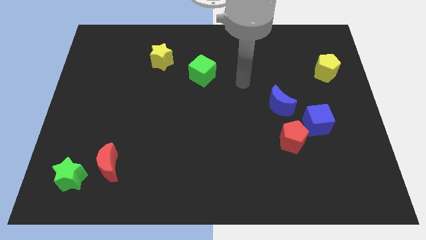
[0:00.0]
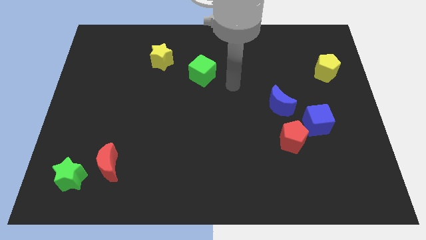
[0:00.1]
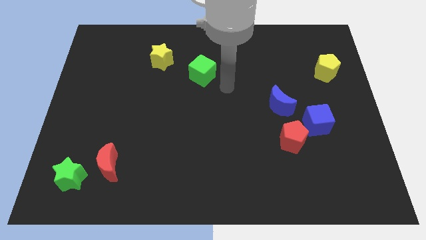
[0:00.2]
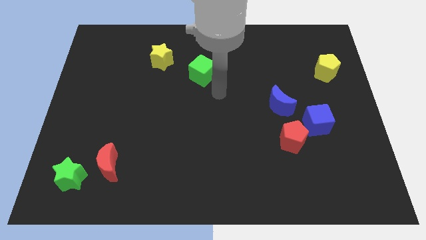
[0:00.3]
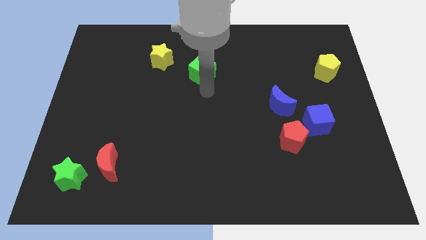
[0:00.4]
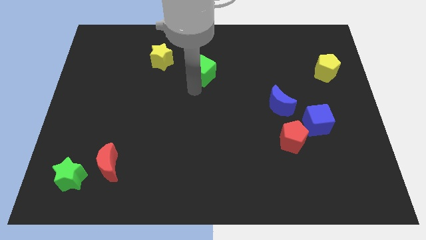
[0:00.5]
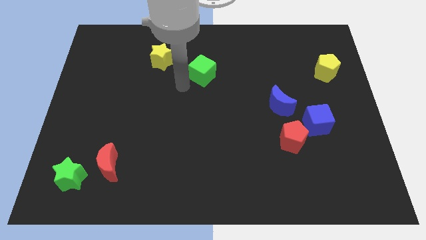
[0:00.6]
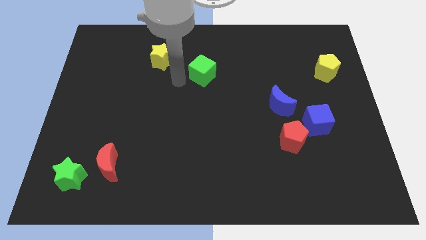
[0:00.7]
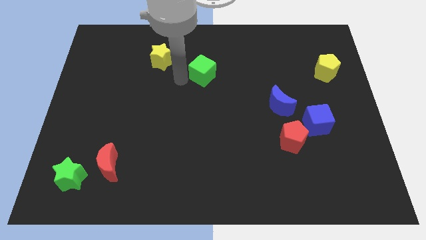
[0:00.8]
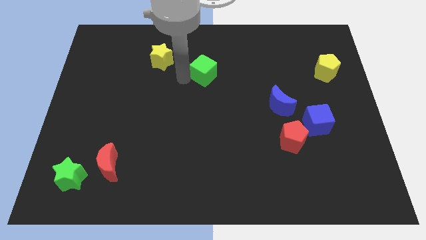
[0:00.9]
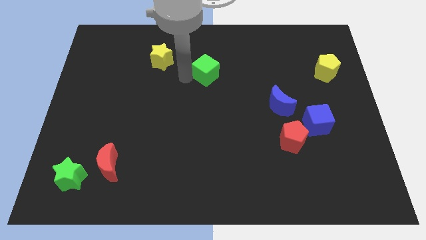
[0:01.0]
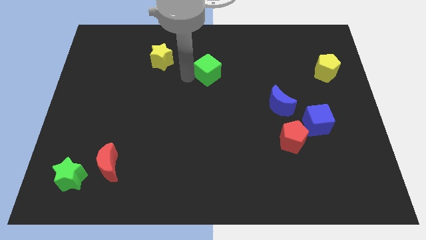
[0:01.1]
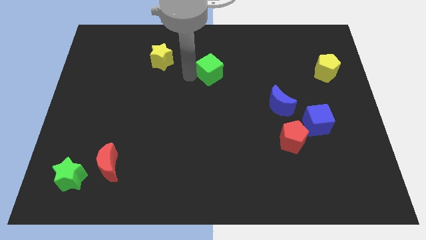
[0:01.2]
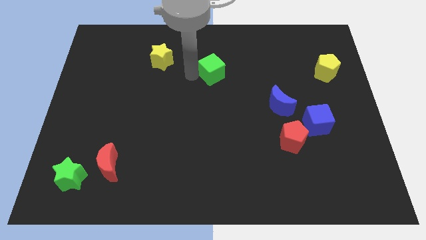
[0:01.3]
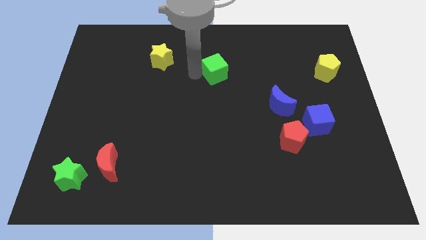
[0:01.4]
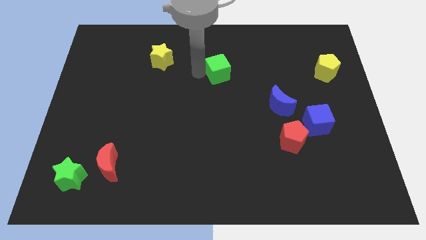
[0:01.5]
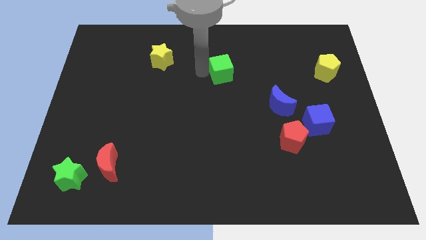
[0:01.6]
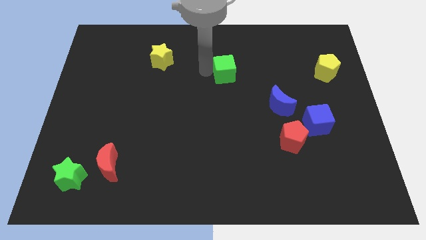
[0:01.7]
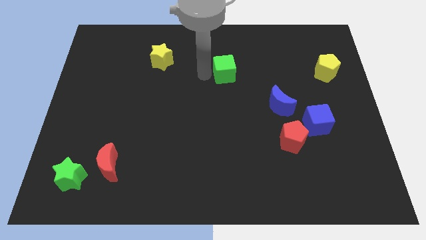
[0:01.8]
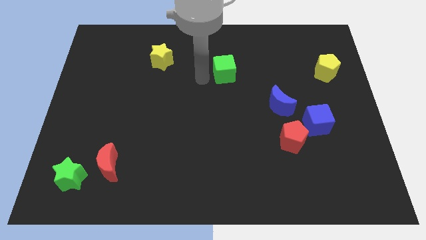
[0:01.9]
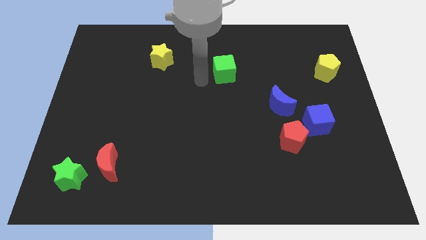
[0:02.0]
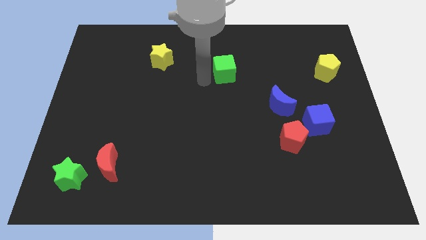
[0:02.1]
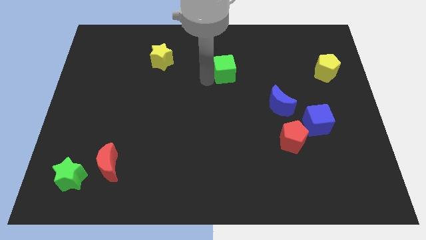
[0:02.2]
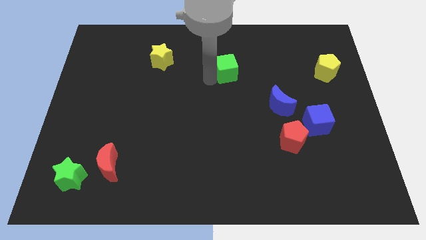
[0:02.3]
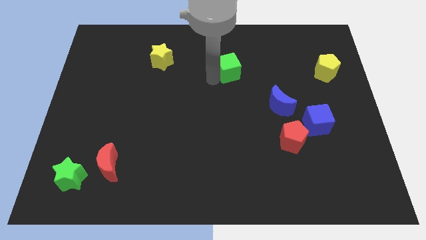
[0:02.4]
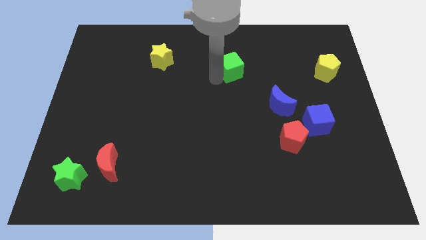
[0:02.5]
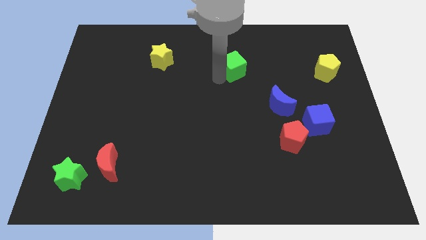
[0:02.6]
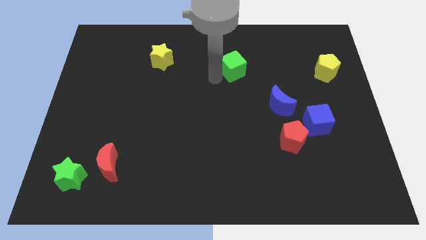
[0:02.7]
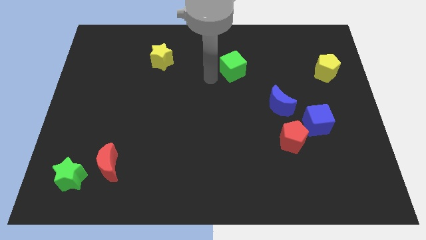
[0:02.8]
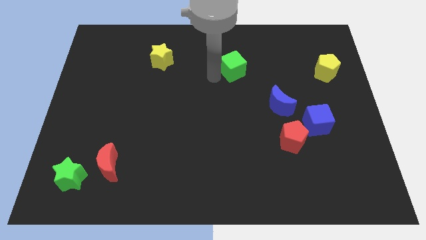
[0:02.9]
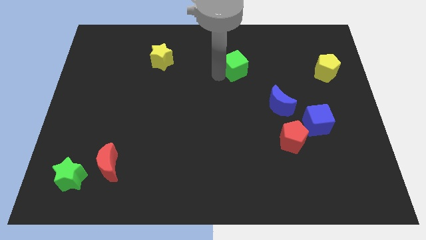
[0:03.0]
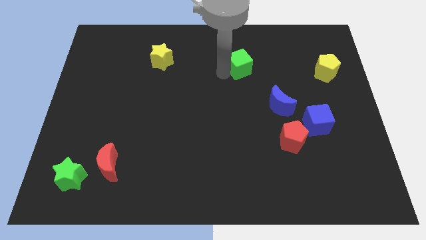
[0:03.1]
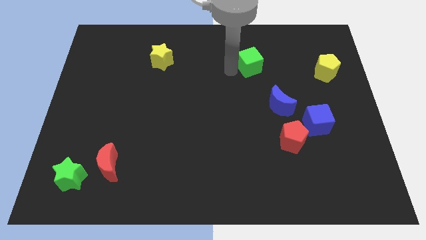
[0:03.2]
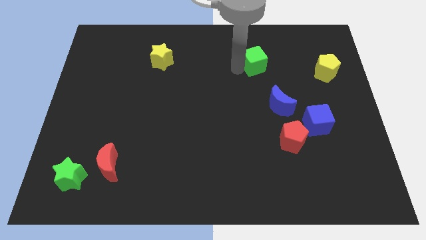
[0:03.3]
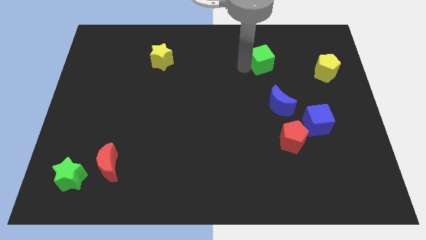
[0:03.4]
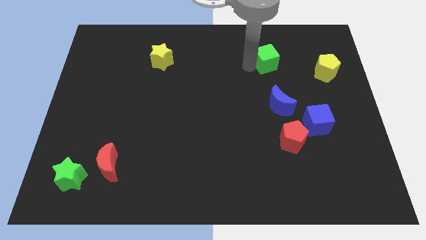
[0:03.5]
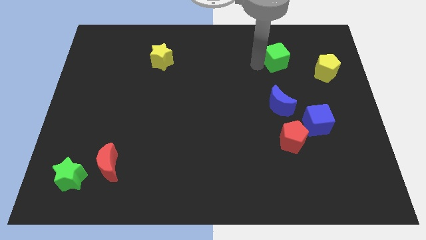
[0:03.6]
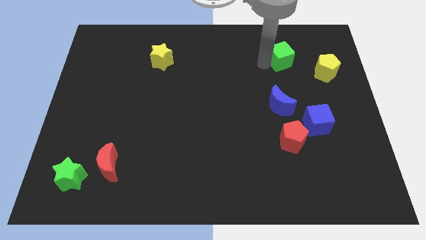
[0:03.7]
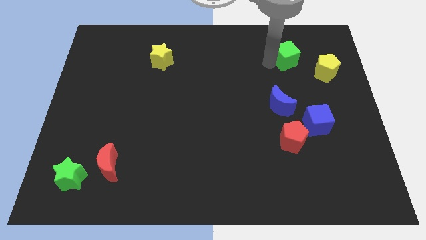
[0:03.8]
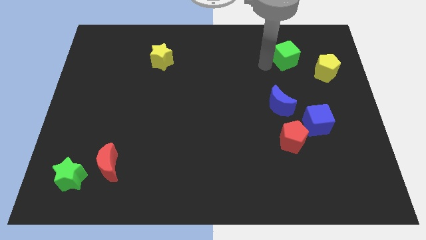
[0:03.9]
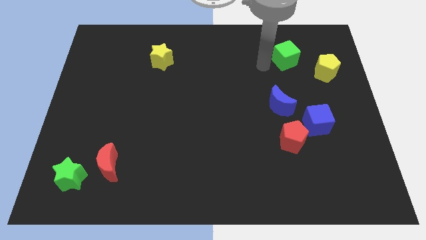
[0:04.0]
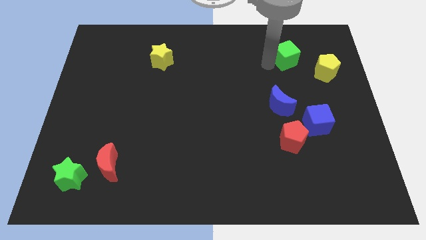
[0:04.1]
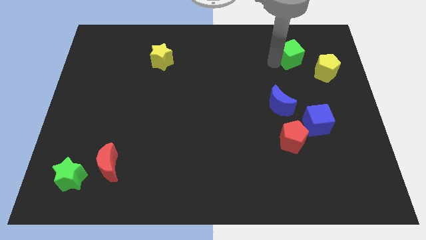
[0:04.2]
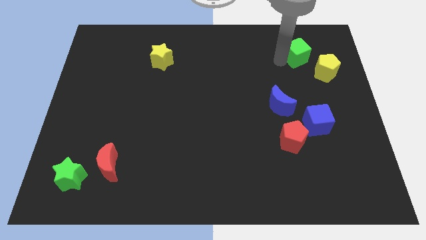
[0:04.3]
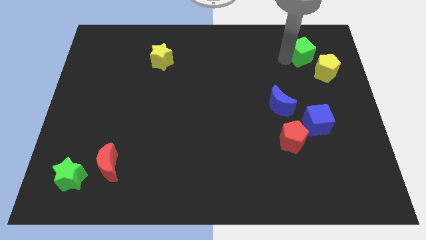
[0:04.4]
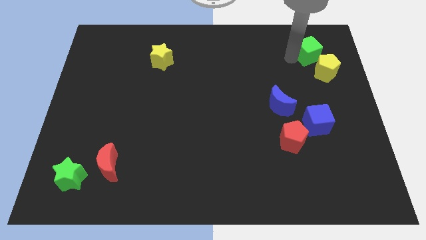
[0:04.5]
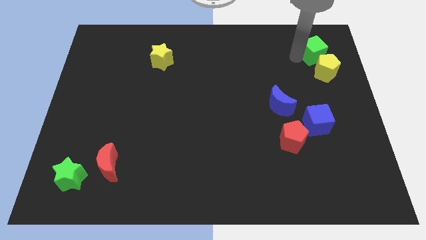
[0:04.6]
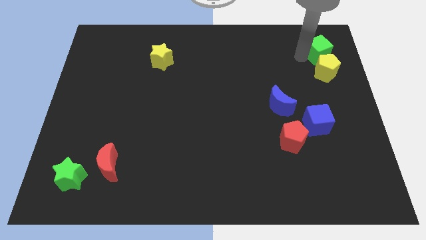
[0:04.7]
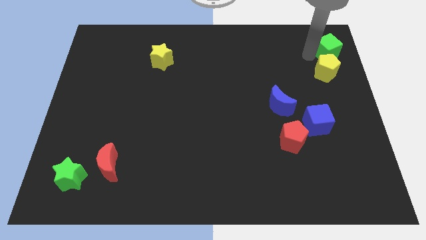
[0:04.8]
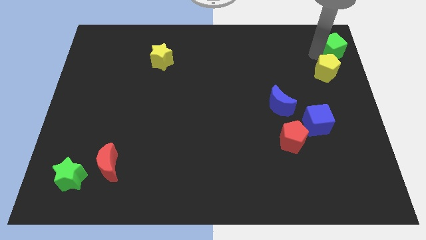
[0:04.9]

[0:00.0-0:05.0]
move the green cube to the upper right corner

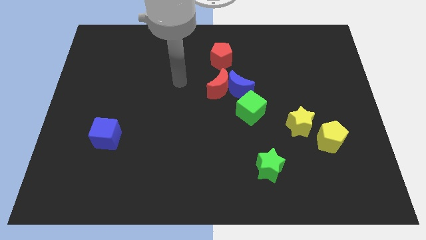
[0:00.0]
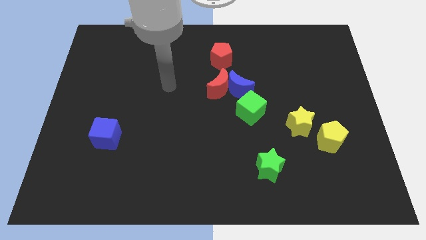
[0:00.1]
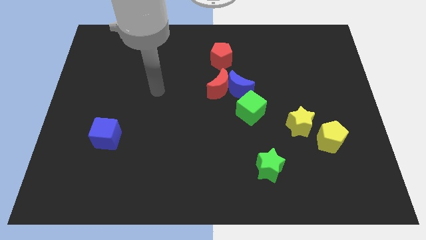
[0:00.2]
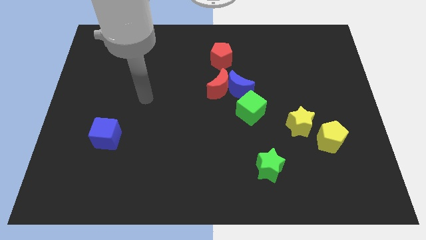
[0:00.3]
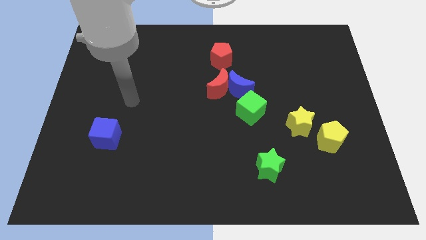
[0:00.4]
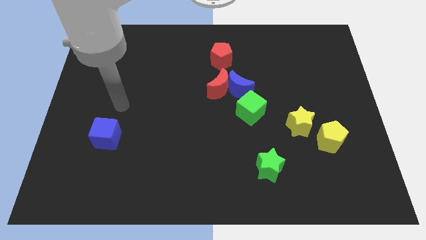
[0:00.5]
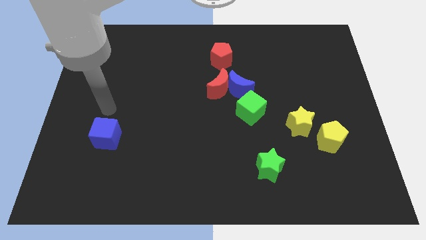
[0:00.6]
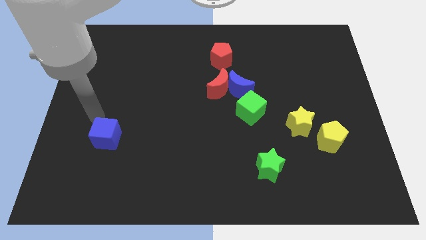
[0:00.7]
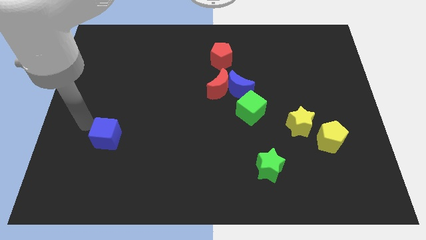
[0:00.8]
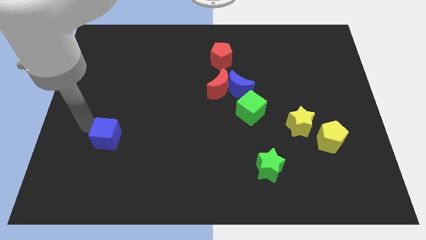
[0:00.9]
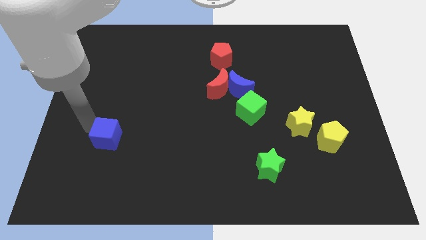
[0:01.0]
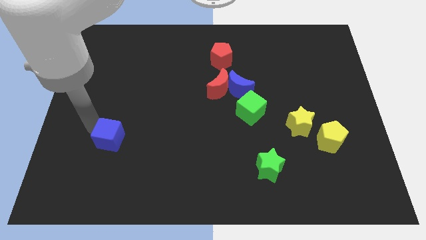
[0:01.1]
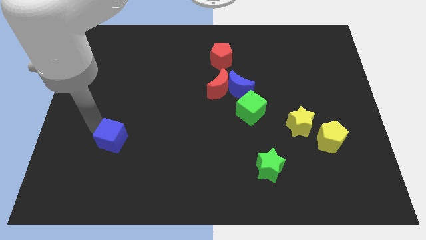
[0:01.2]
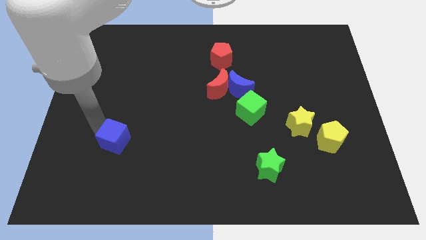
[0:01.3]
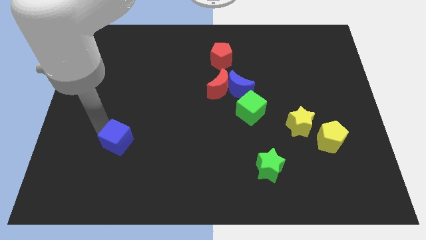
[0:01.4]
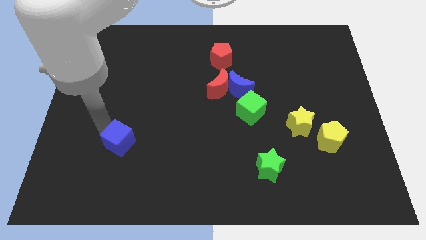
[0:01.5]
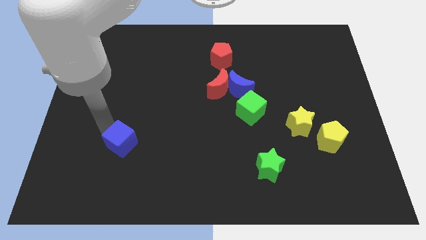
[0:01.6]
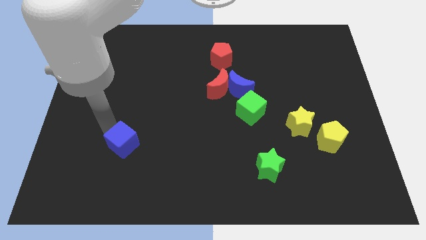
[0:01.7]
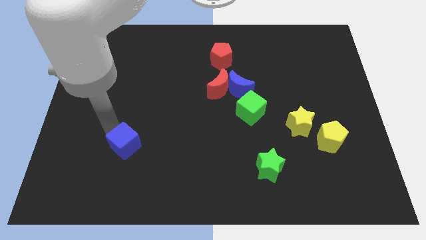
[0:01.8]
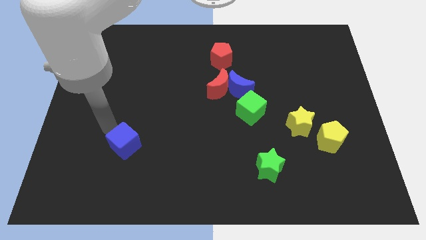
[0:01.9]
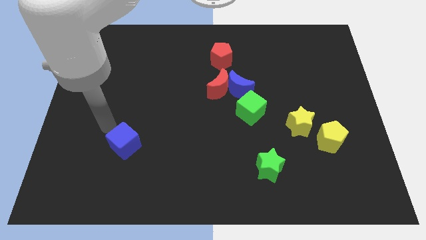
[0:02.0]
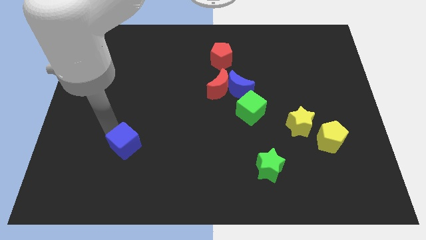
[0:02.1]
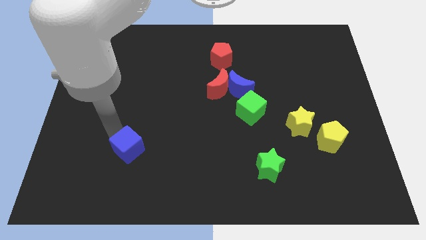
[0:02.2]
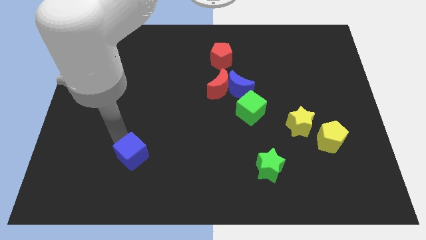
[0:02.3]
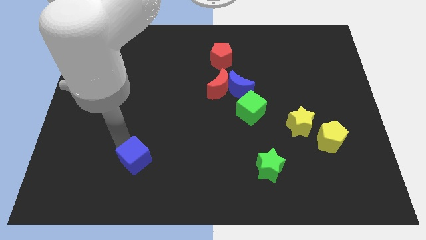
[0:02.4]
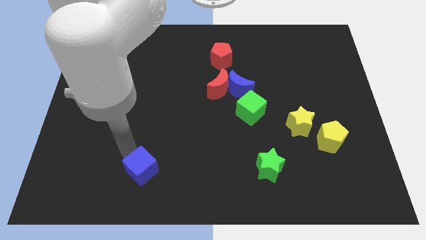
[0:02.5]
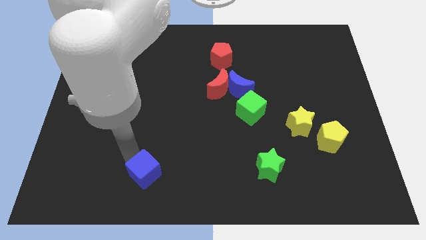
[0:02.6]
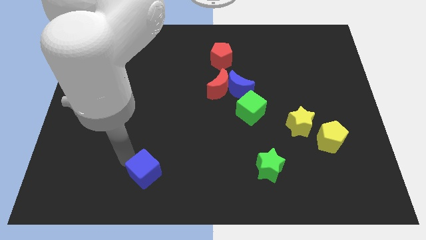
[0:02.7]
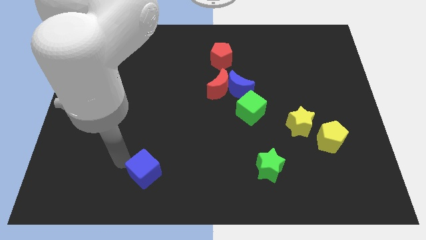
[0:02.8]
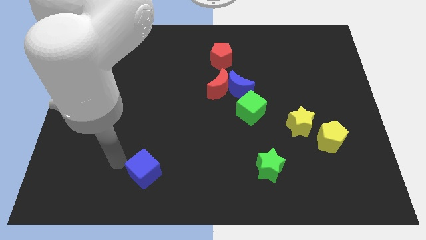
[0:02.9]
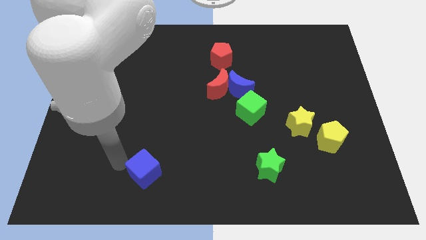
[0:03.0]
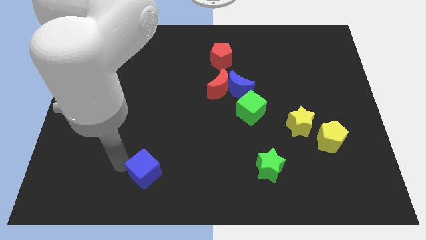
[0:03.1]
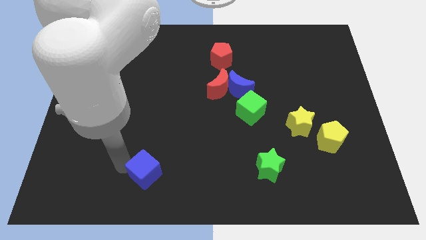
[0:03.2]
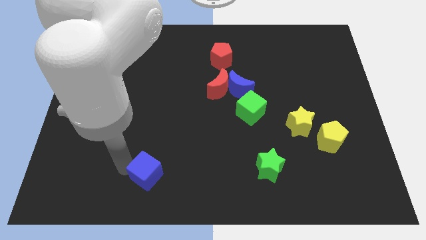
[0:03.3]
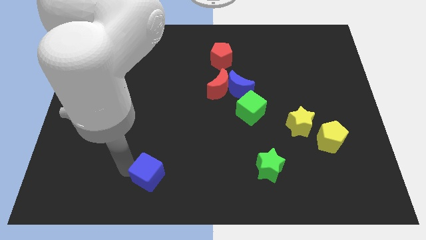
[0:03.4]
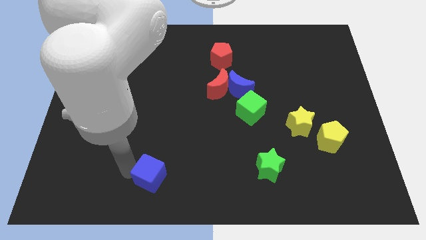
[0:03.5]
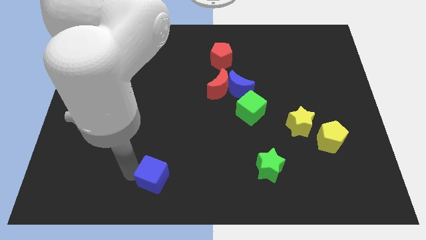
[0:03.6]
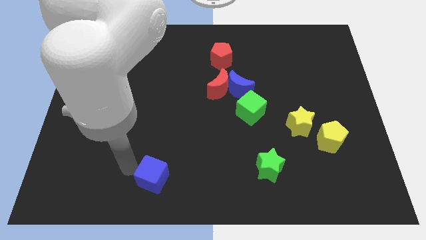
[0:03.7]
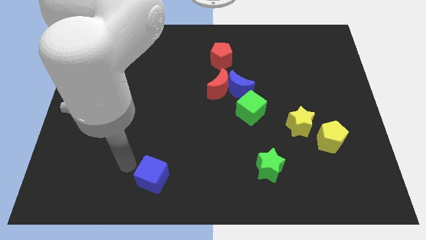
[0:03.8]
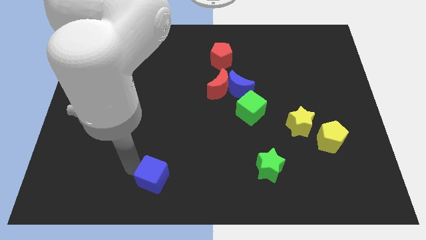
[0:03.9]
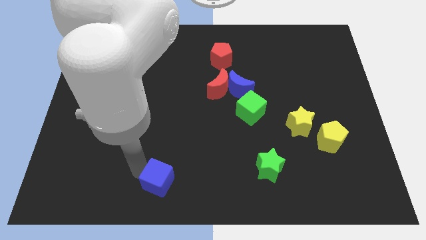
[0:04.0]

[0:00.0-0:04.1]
slide the blue cube to the bottom
